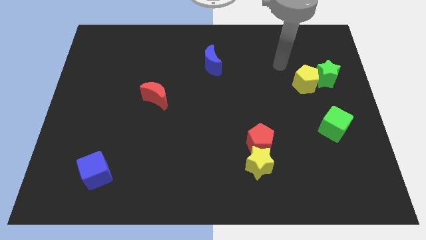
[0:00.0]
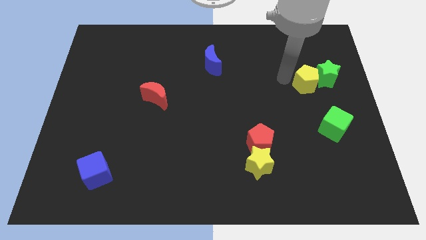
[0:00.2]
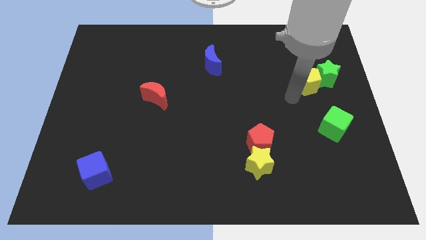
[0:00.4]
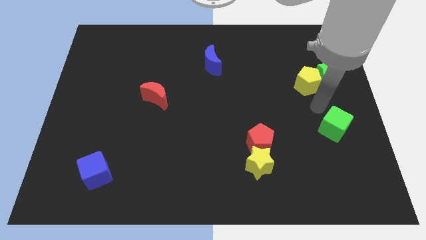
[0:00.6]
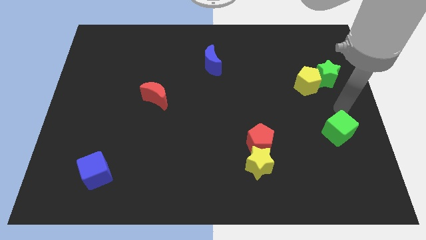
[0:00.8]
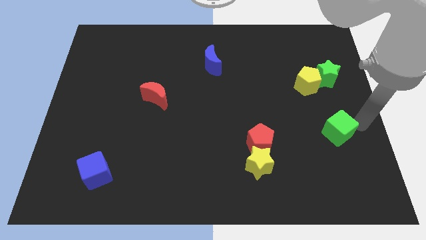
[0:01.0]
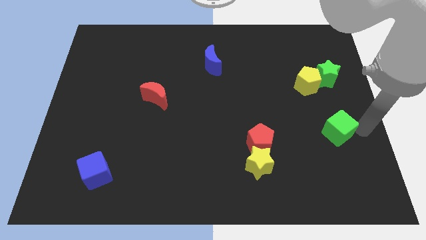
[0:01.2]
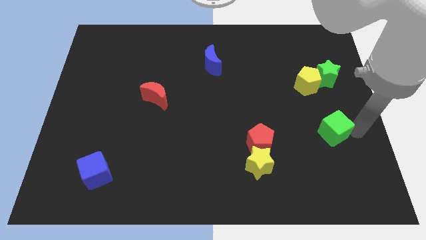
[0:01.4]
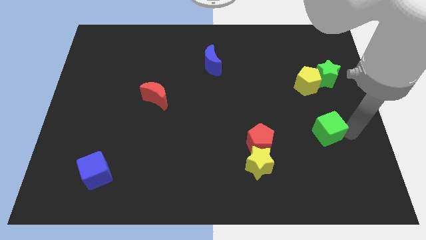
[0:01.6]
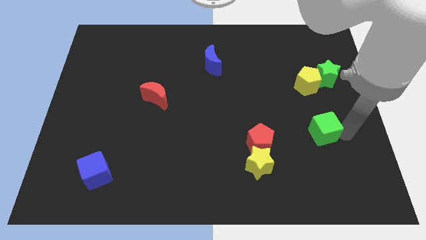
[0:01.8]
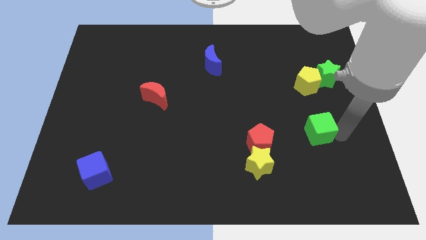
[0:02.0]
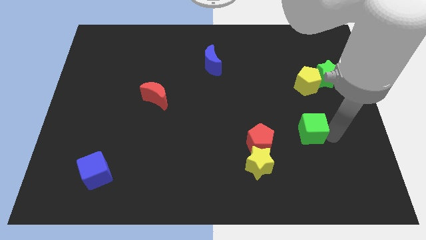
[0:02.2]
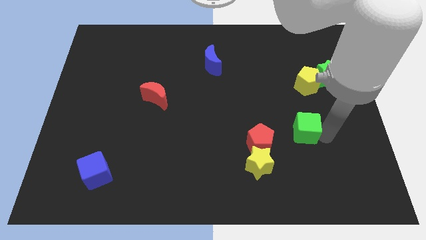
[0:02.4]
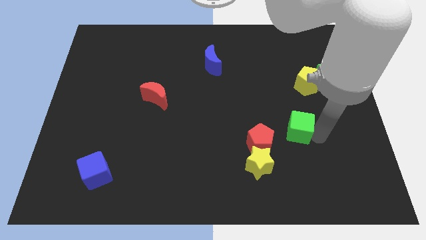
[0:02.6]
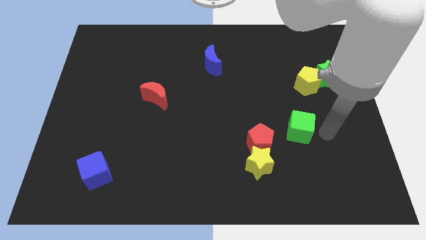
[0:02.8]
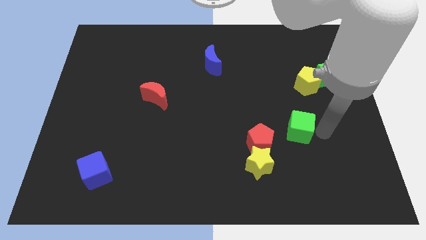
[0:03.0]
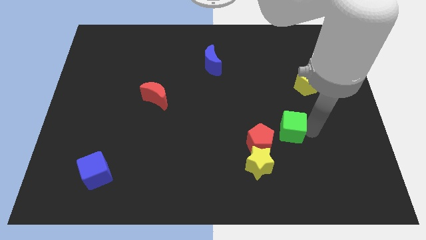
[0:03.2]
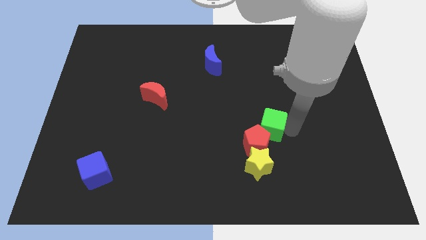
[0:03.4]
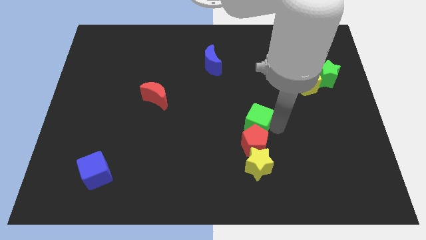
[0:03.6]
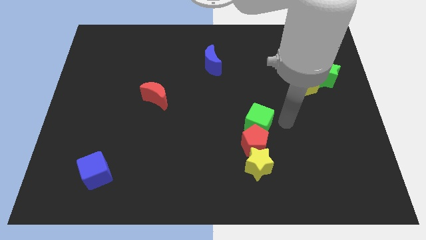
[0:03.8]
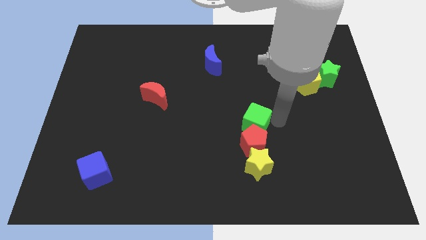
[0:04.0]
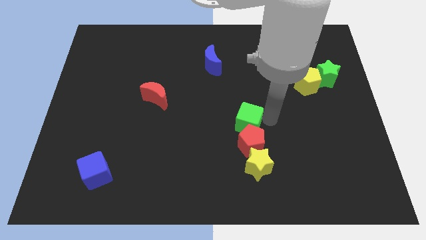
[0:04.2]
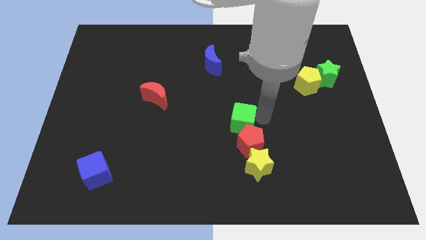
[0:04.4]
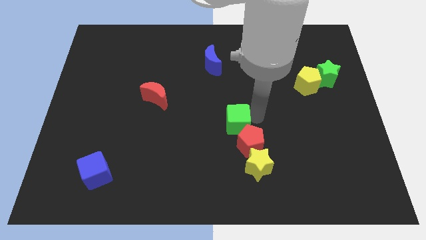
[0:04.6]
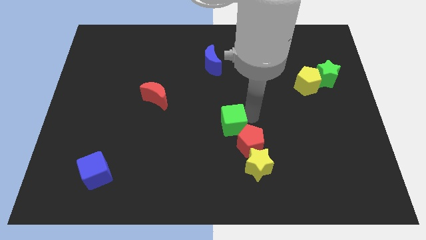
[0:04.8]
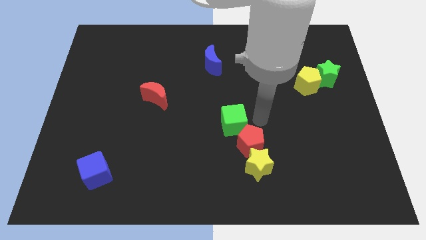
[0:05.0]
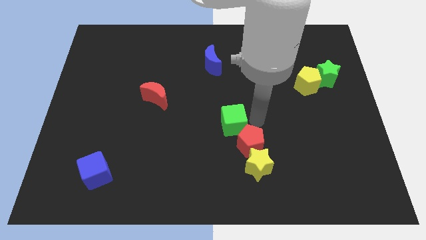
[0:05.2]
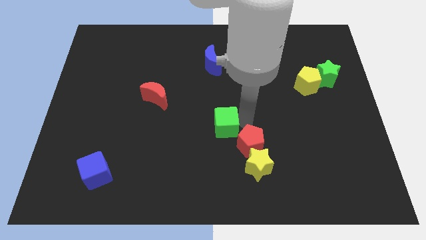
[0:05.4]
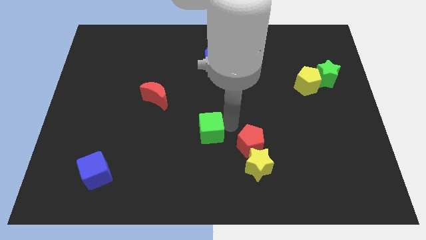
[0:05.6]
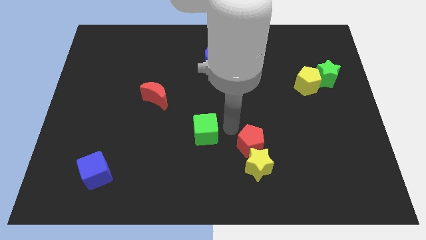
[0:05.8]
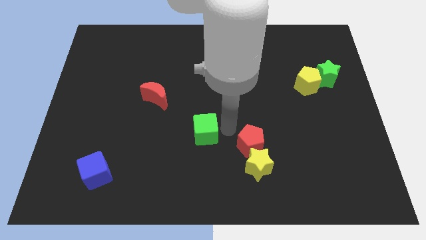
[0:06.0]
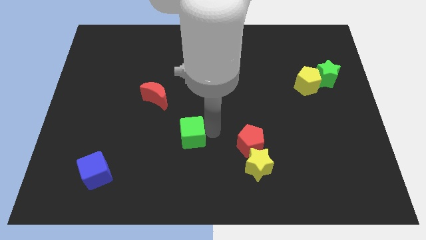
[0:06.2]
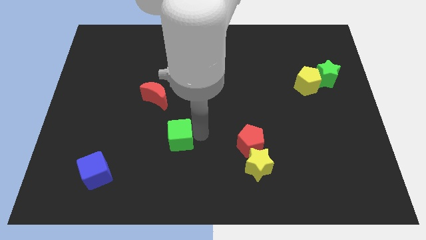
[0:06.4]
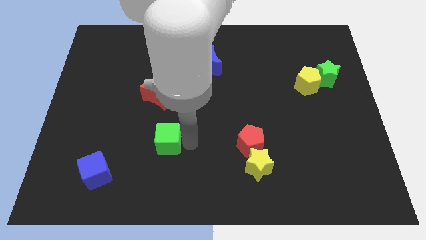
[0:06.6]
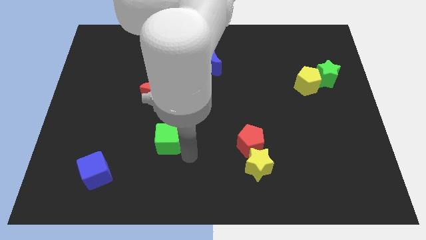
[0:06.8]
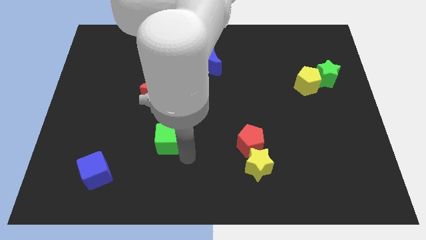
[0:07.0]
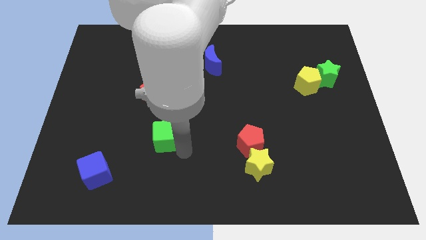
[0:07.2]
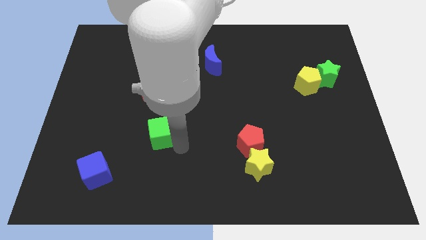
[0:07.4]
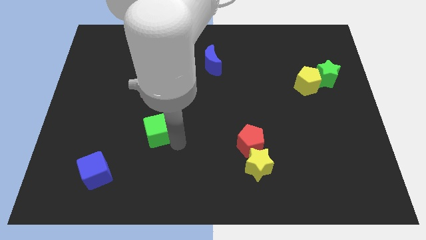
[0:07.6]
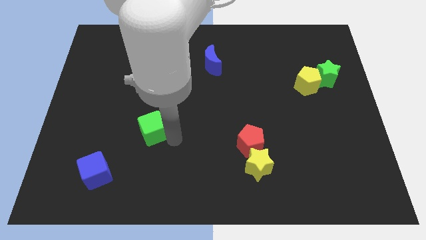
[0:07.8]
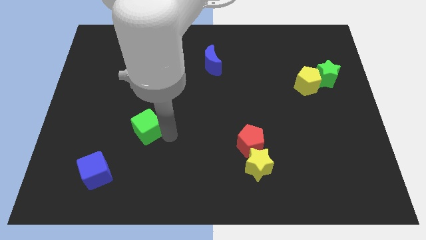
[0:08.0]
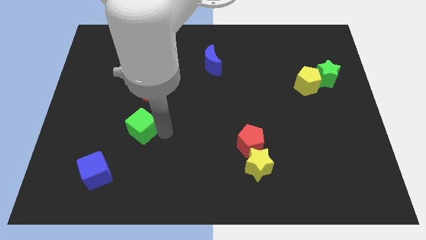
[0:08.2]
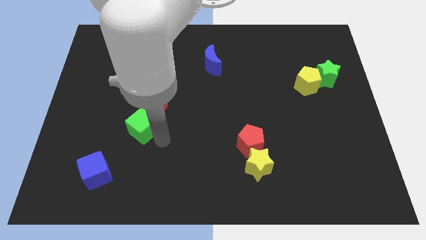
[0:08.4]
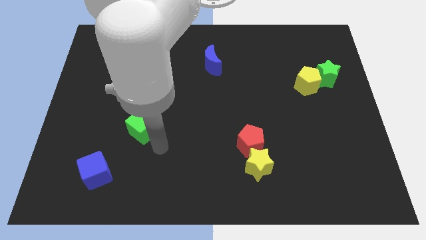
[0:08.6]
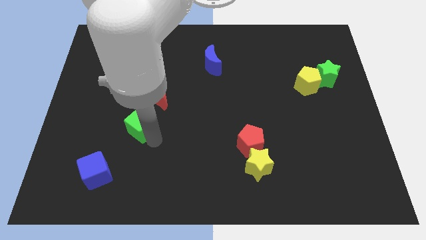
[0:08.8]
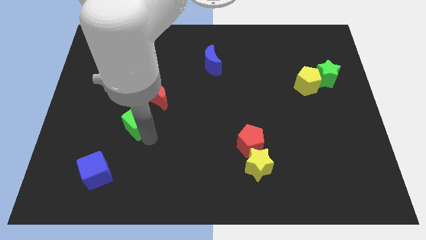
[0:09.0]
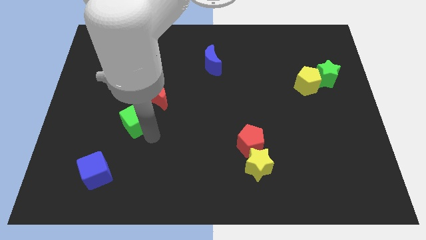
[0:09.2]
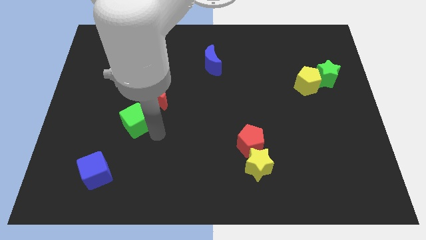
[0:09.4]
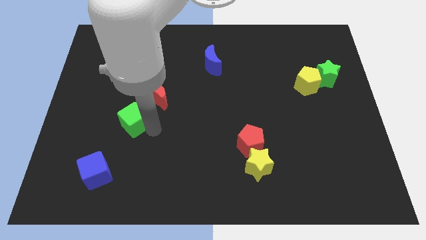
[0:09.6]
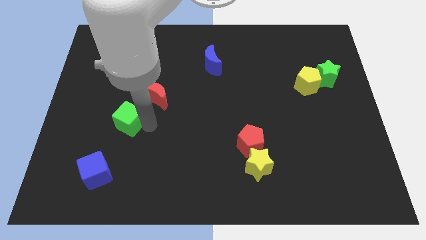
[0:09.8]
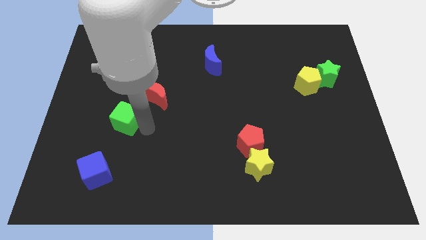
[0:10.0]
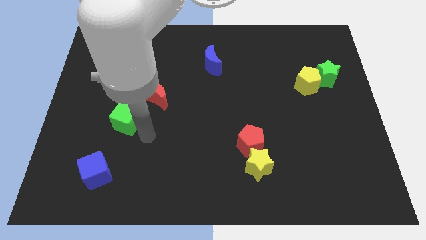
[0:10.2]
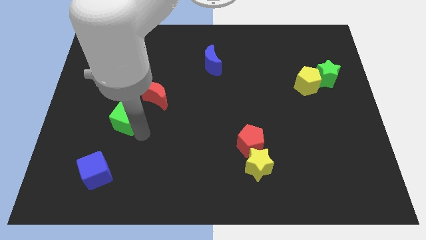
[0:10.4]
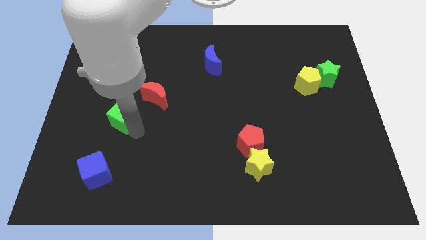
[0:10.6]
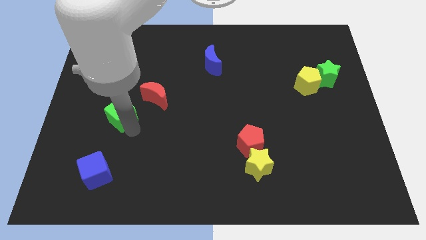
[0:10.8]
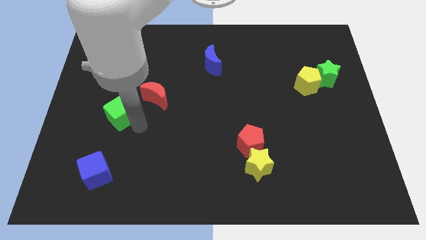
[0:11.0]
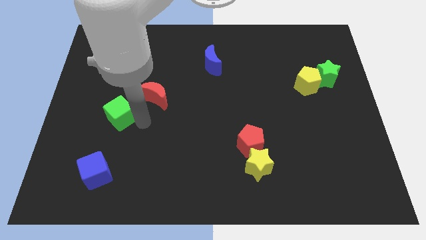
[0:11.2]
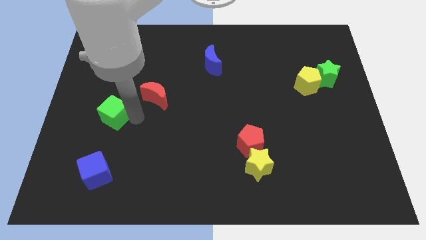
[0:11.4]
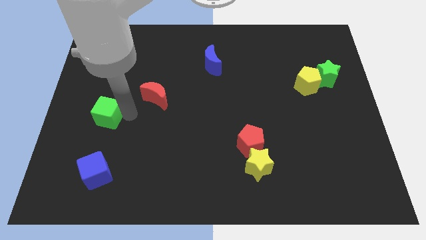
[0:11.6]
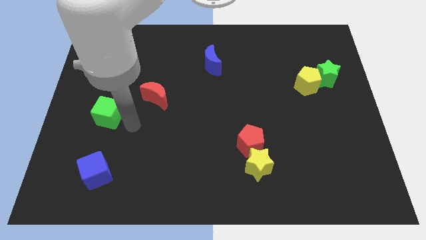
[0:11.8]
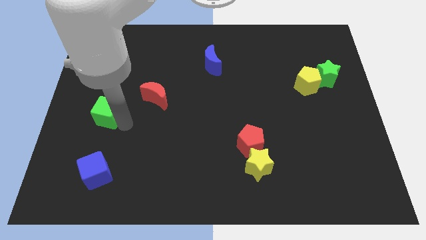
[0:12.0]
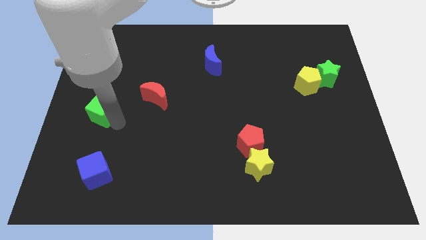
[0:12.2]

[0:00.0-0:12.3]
slide the green cube to the center left

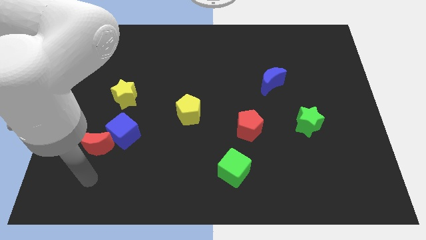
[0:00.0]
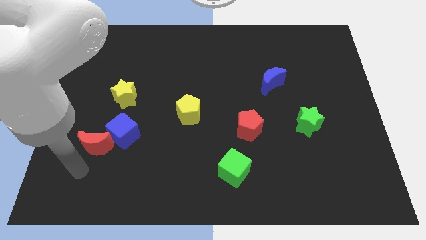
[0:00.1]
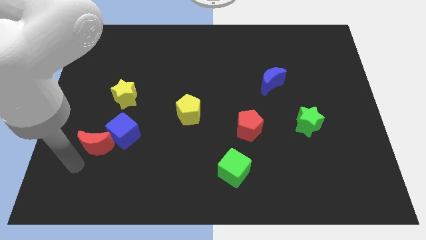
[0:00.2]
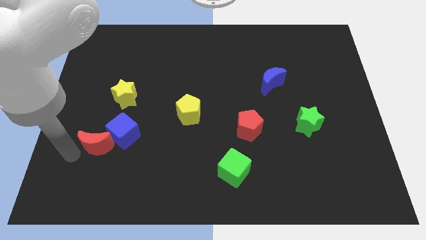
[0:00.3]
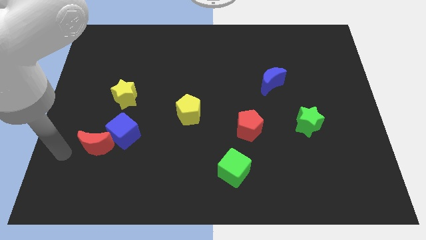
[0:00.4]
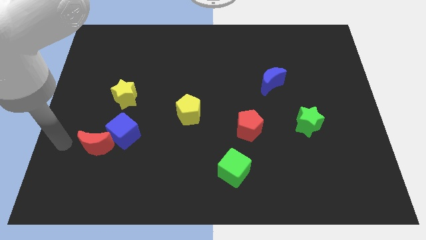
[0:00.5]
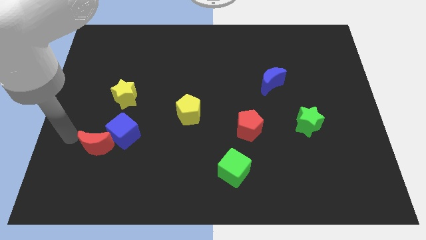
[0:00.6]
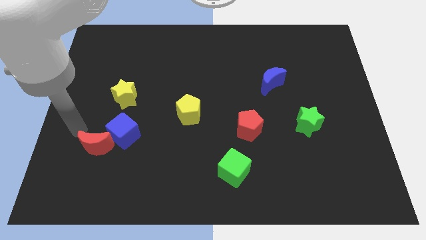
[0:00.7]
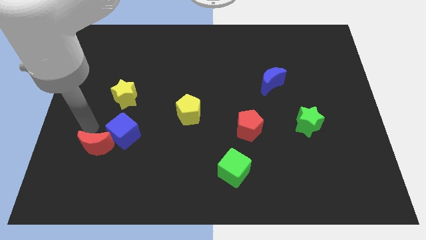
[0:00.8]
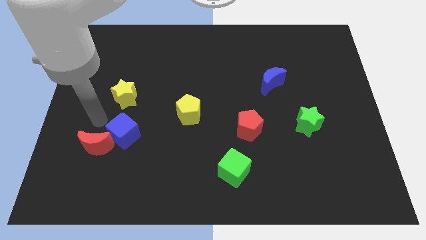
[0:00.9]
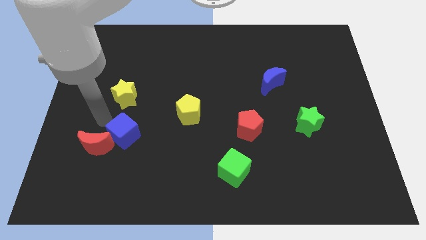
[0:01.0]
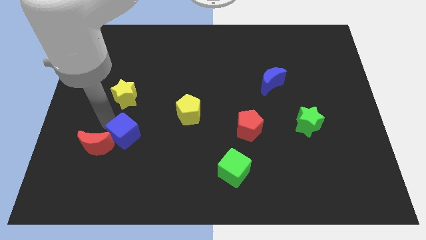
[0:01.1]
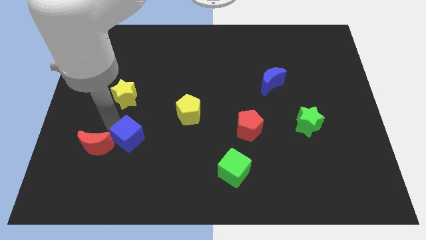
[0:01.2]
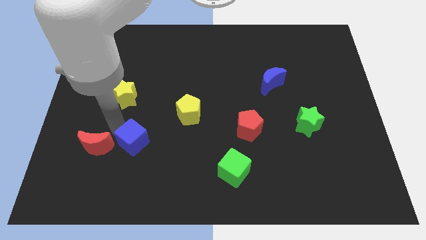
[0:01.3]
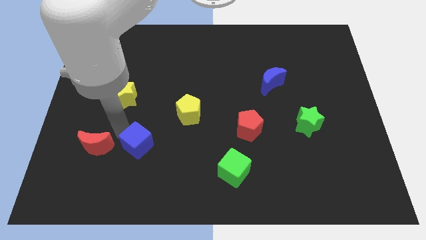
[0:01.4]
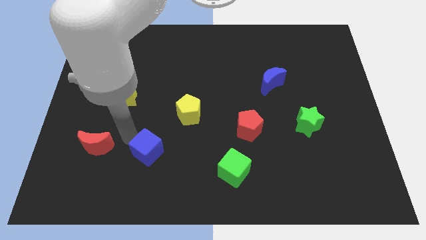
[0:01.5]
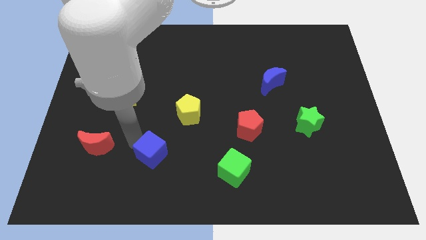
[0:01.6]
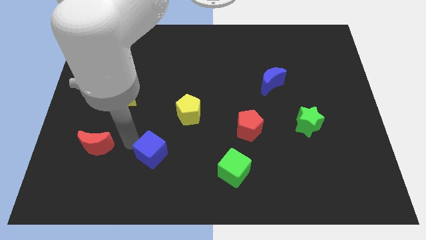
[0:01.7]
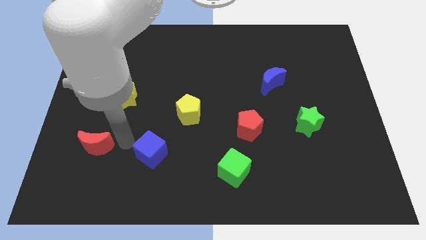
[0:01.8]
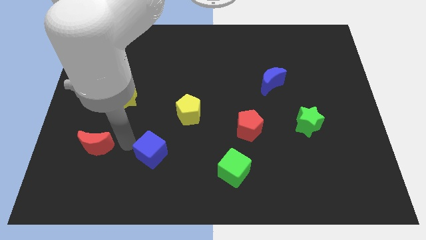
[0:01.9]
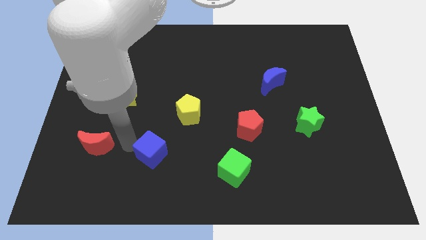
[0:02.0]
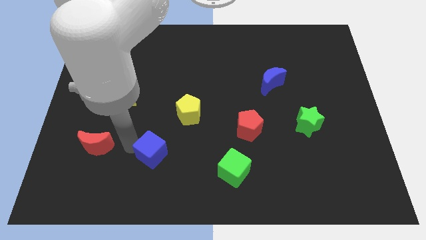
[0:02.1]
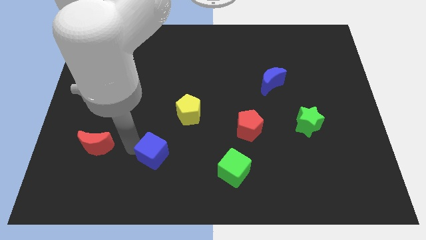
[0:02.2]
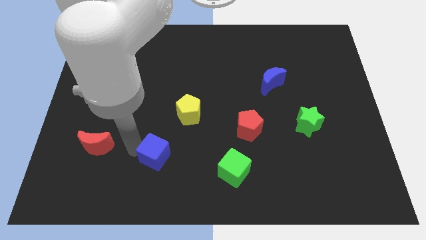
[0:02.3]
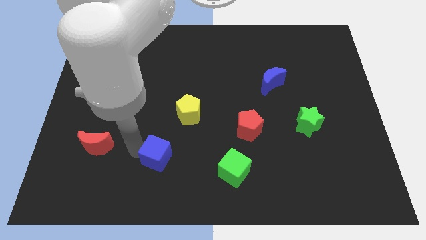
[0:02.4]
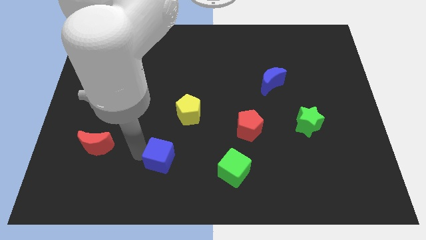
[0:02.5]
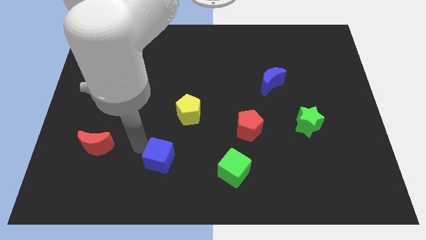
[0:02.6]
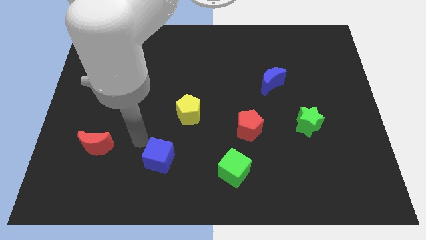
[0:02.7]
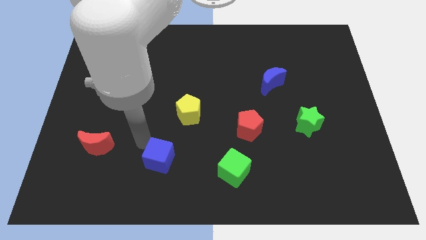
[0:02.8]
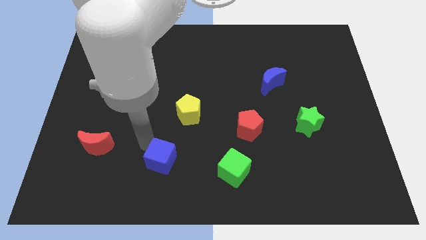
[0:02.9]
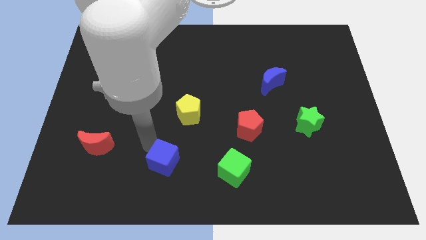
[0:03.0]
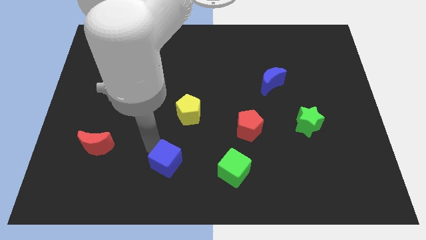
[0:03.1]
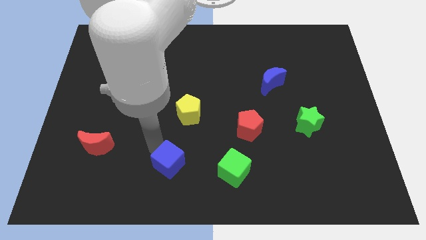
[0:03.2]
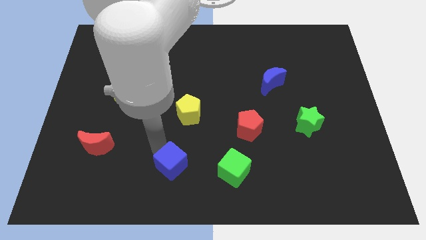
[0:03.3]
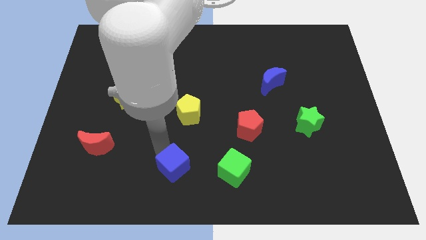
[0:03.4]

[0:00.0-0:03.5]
move the blue cube to the bottom side
